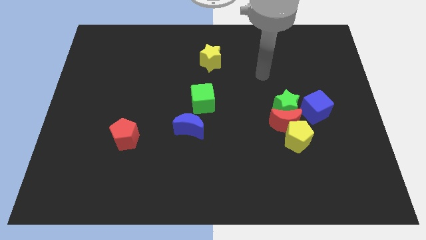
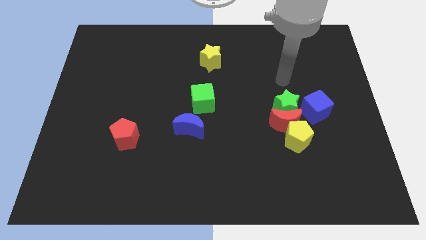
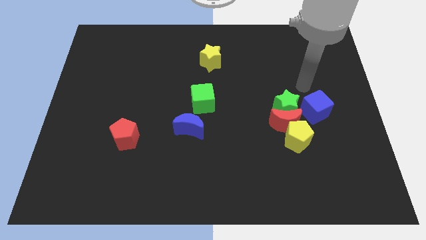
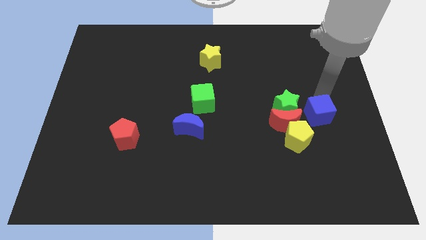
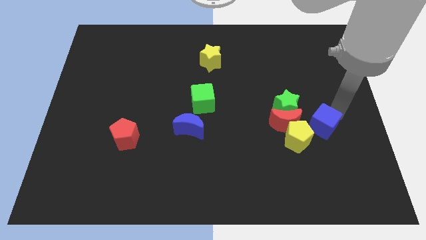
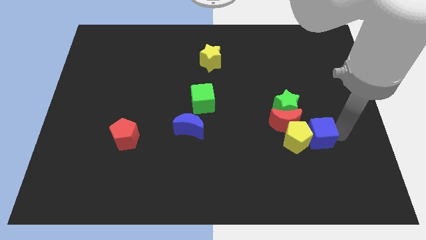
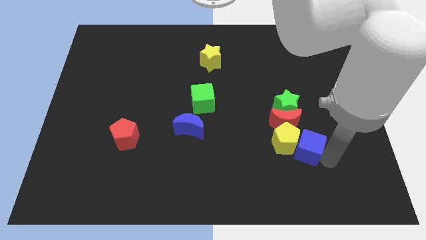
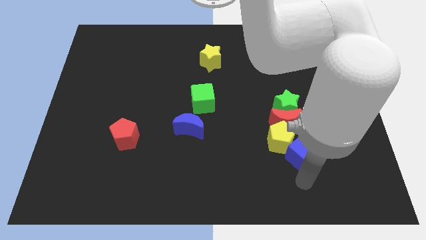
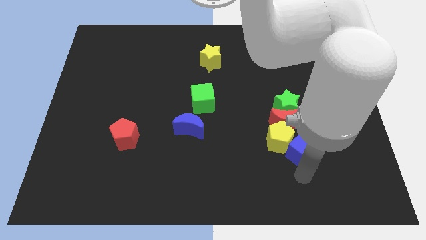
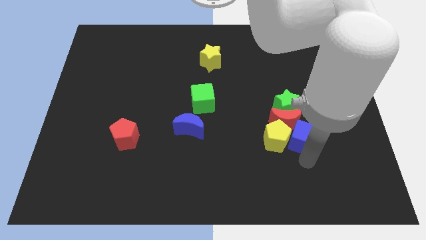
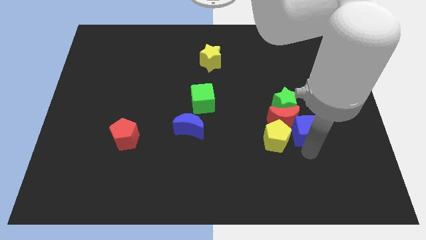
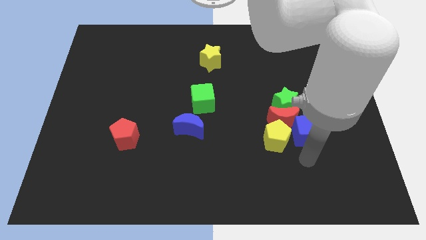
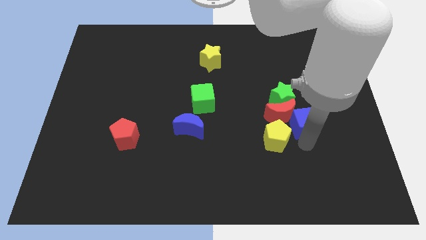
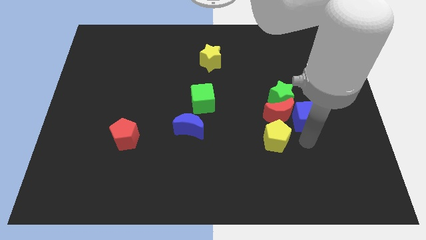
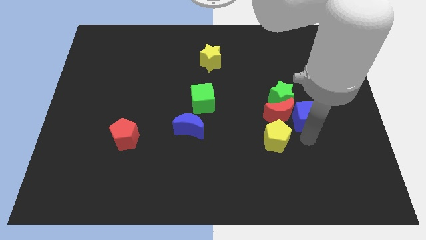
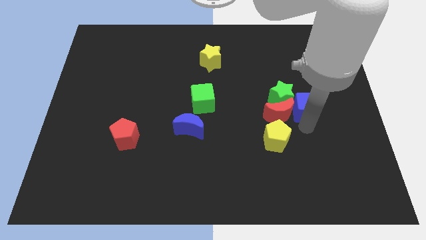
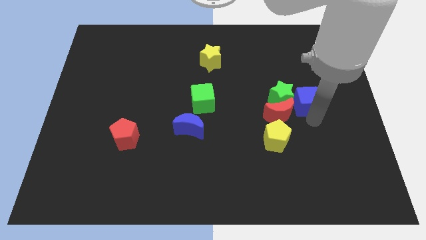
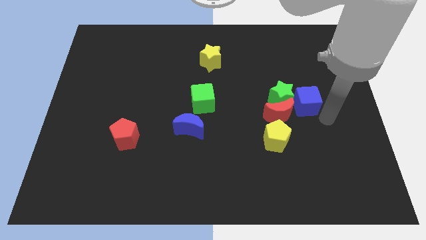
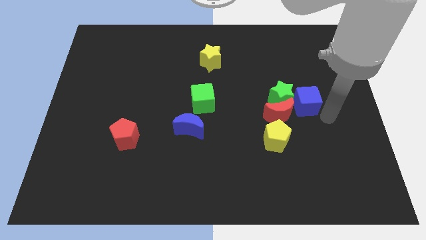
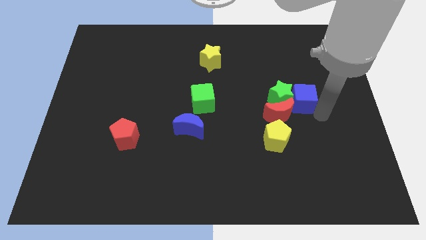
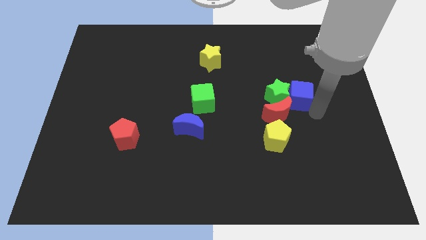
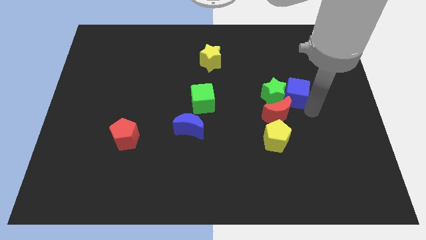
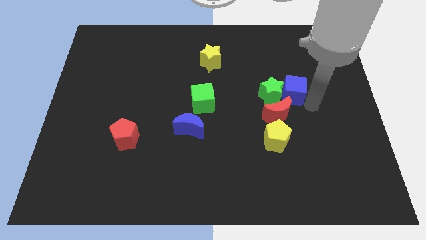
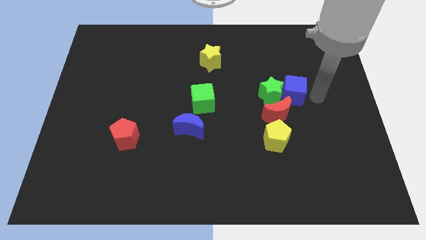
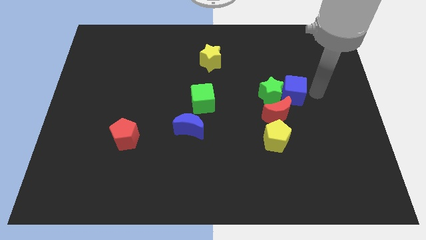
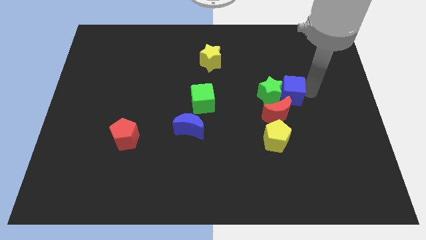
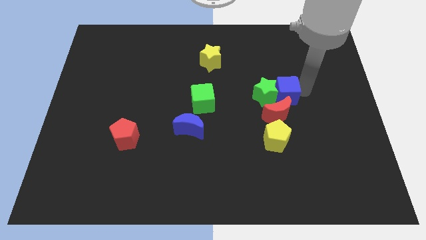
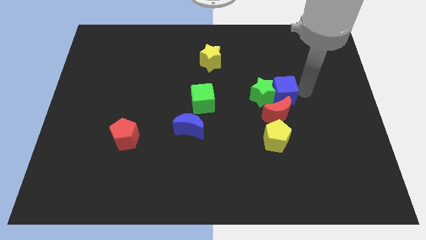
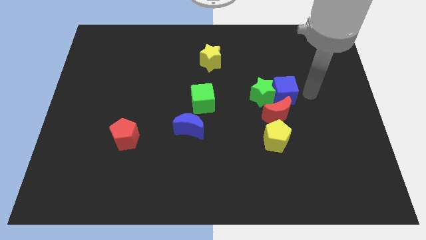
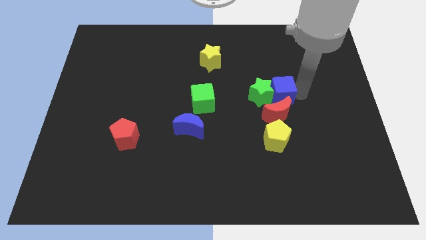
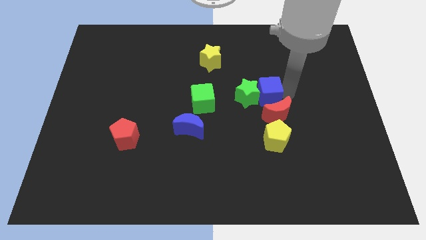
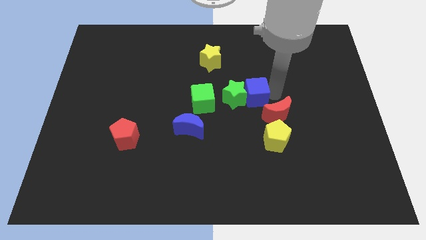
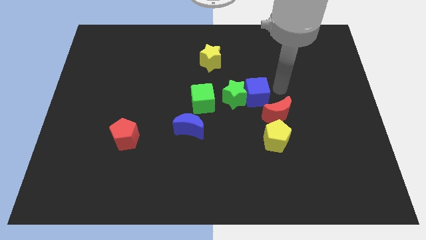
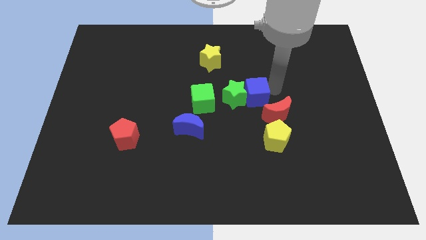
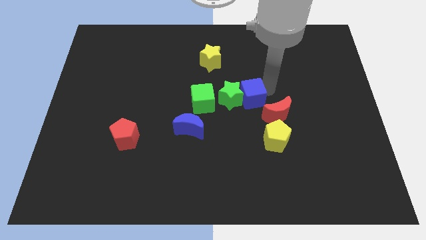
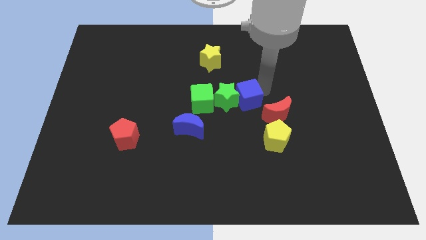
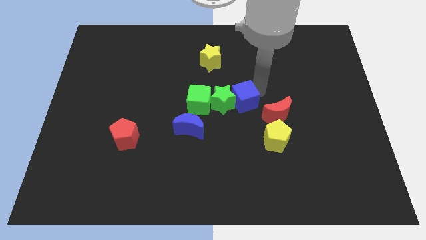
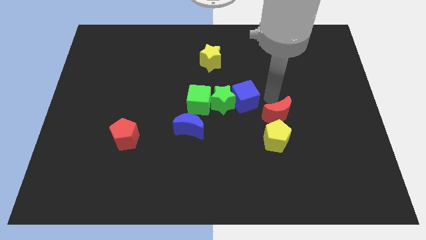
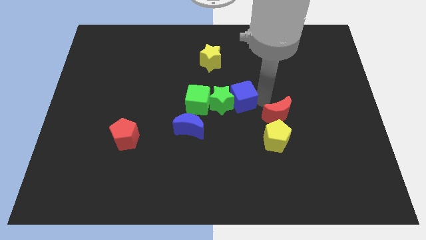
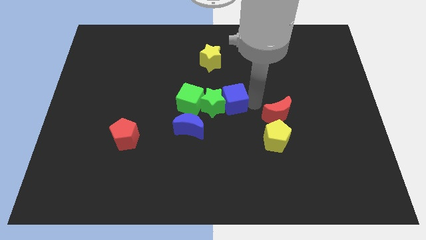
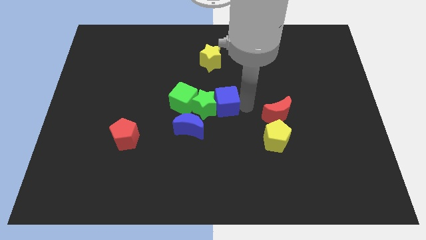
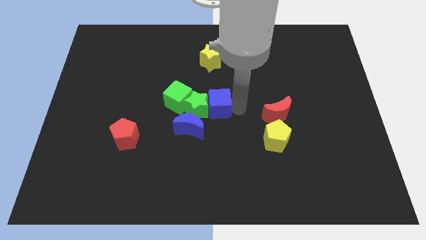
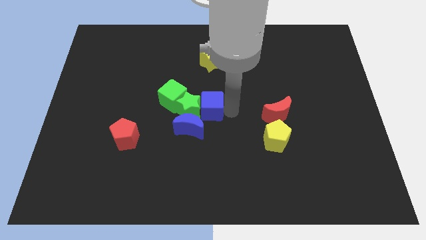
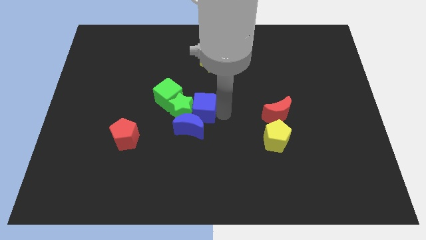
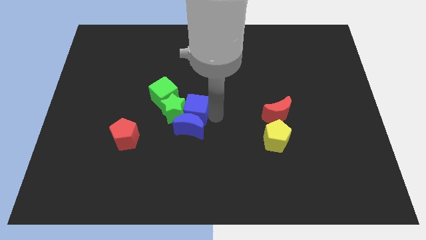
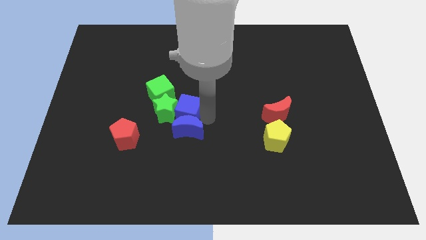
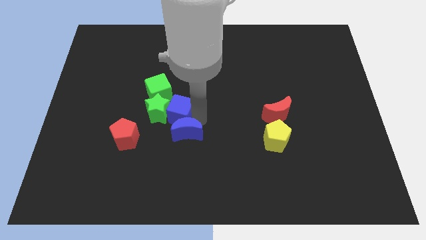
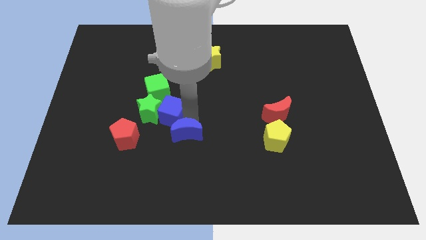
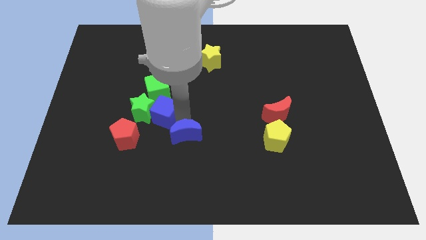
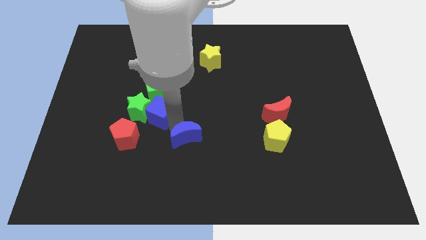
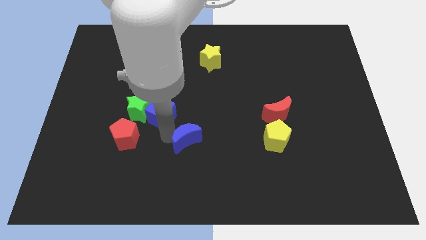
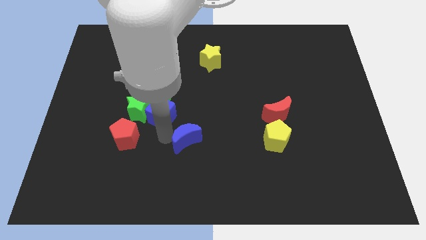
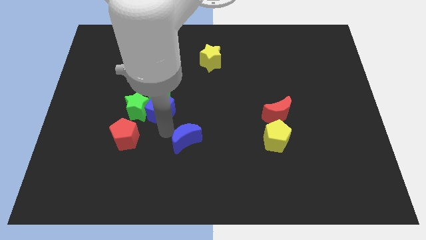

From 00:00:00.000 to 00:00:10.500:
put the blue cube next to the green cube

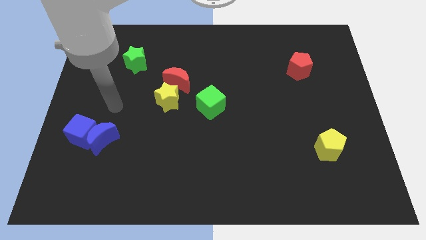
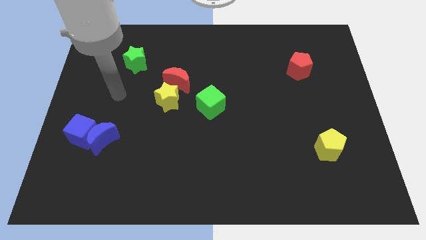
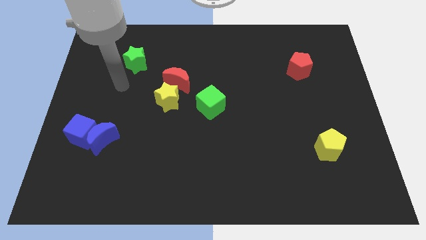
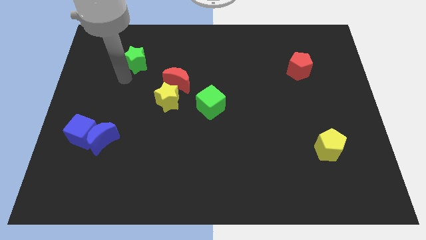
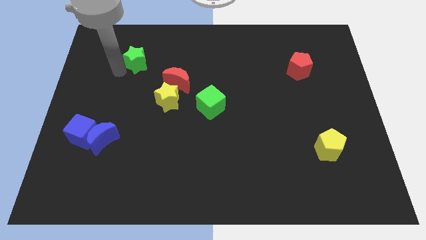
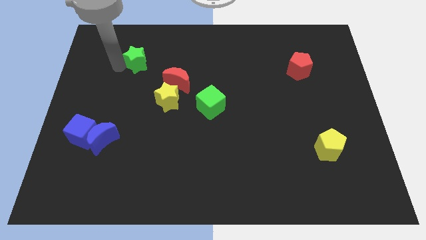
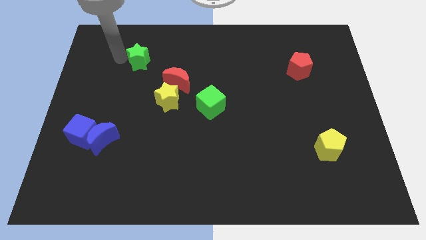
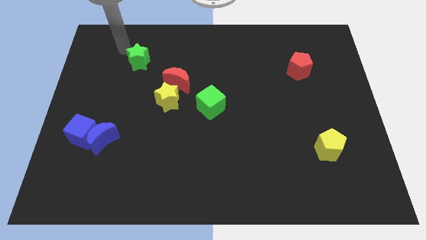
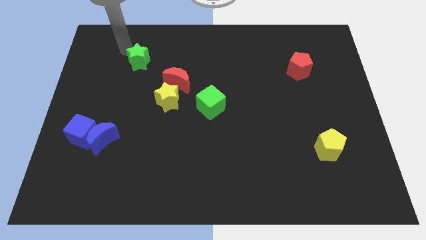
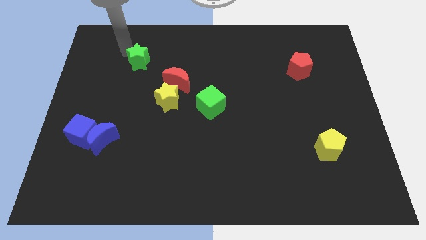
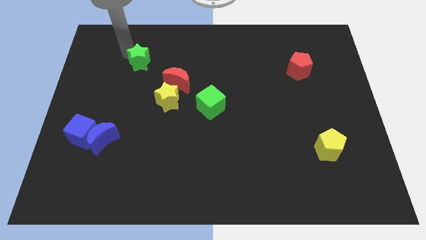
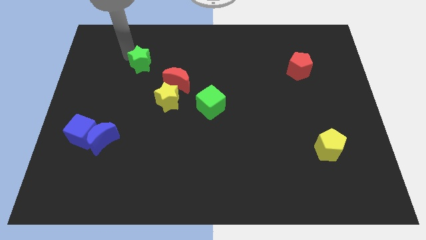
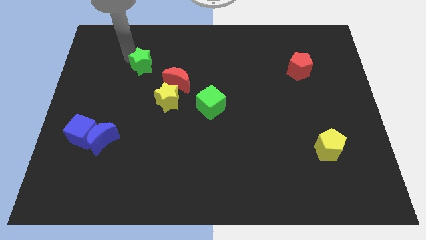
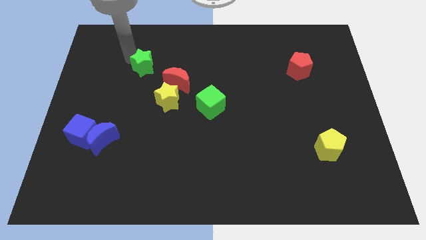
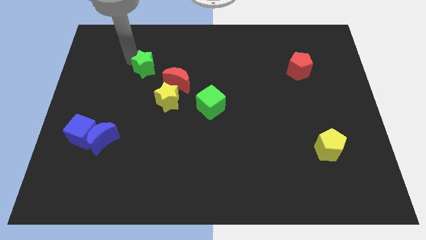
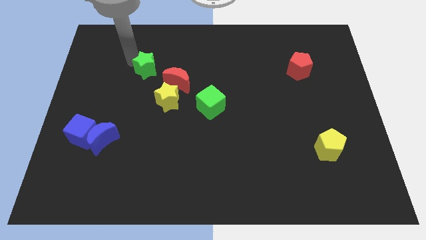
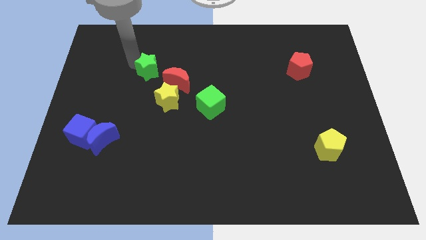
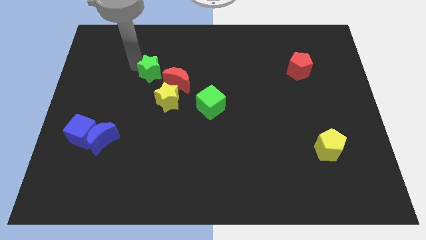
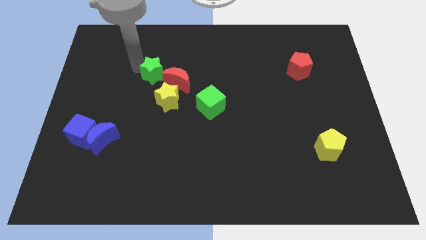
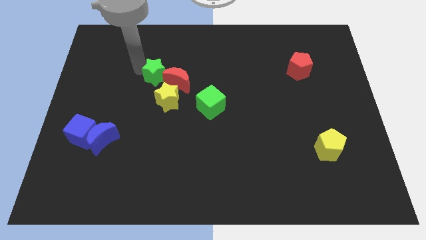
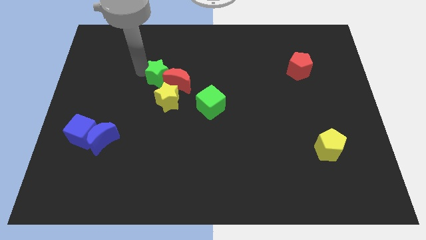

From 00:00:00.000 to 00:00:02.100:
put the green star towards the red moon
